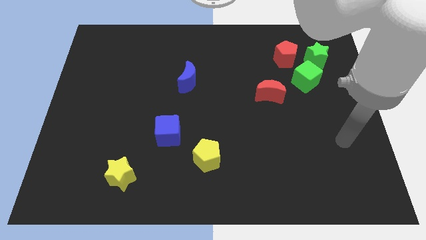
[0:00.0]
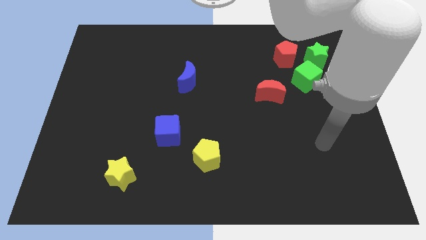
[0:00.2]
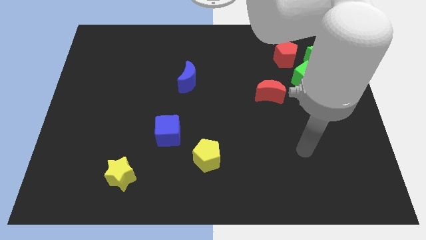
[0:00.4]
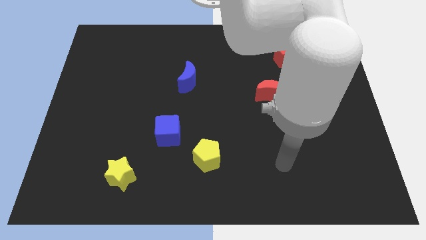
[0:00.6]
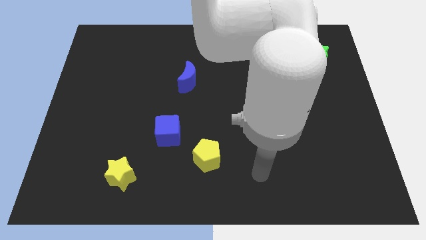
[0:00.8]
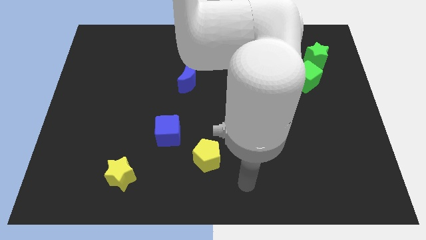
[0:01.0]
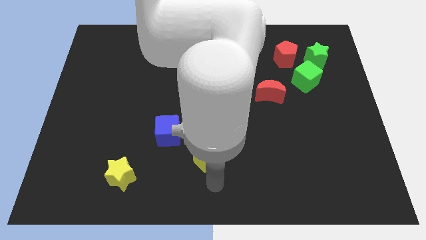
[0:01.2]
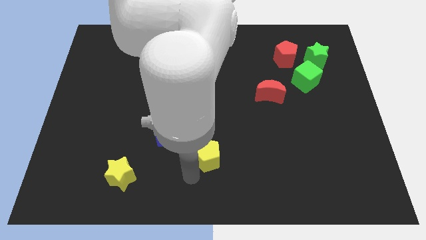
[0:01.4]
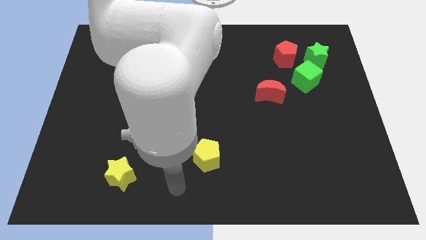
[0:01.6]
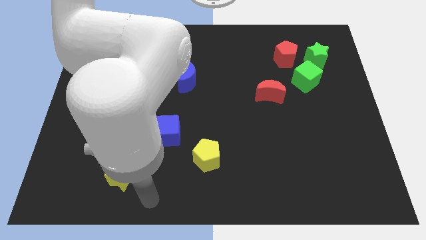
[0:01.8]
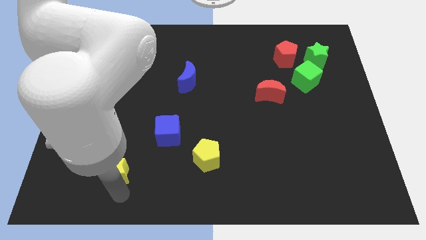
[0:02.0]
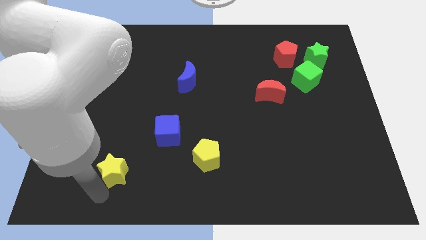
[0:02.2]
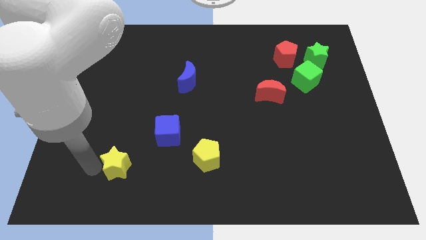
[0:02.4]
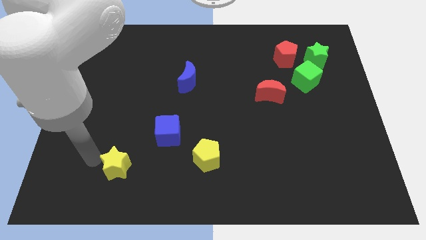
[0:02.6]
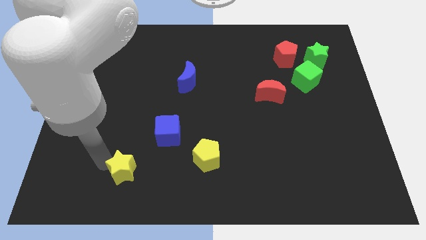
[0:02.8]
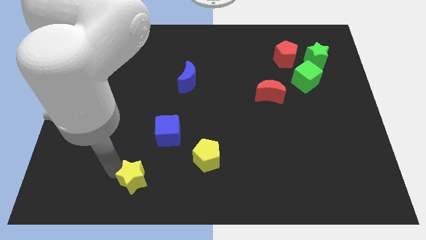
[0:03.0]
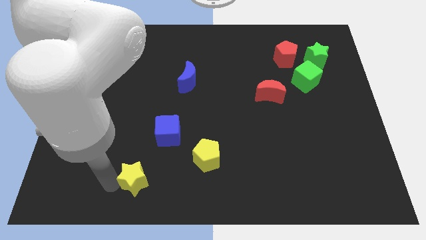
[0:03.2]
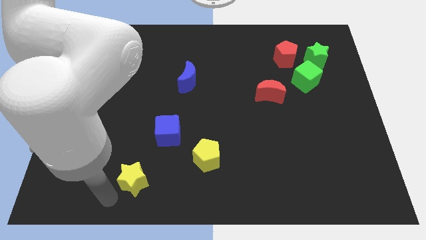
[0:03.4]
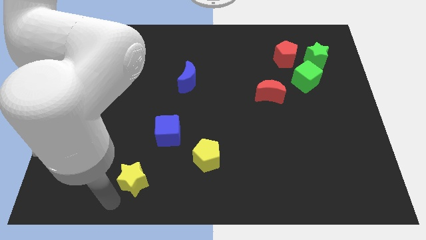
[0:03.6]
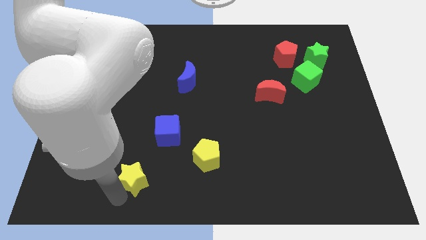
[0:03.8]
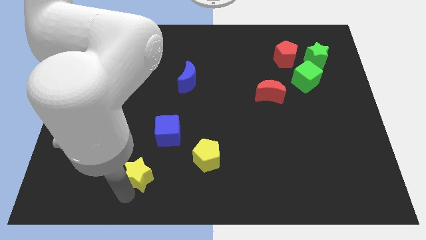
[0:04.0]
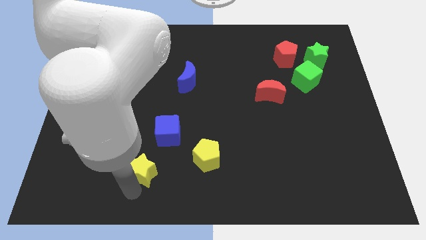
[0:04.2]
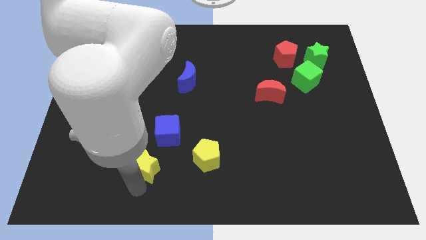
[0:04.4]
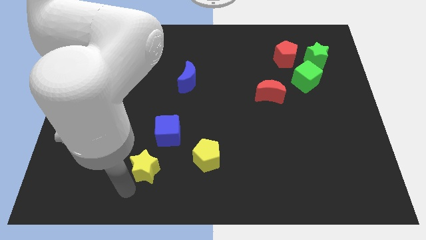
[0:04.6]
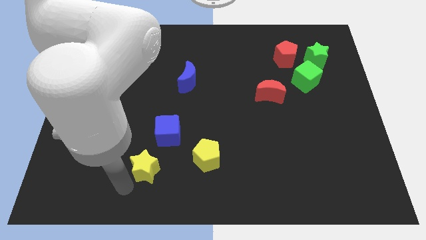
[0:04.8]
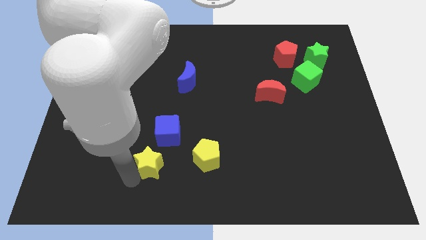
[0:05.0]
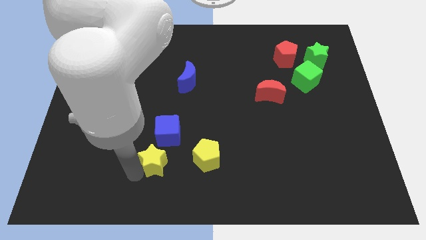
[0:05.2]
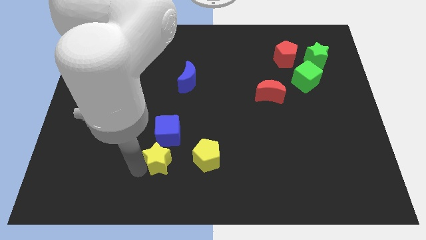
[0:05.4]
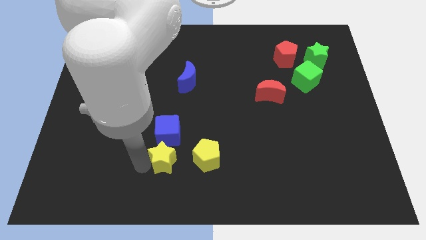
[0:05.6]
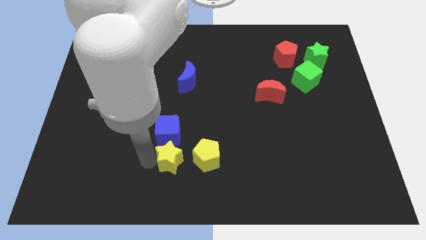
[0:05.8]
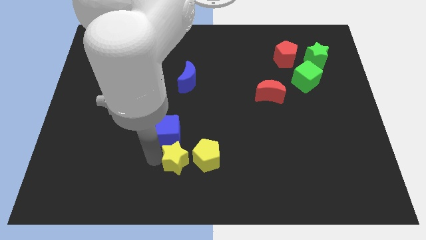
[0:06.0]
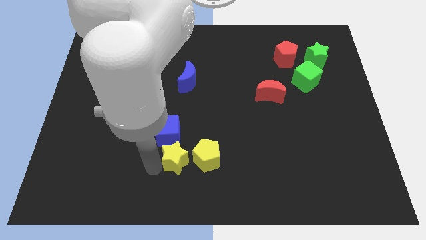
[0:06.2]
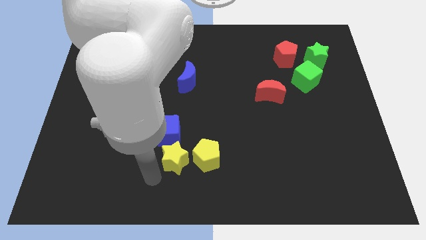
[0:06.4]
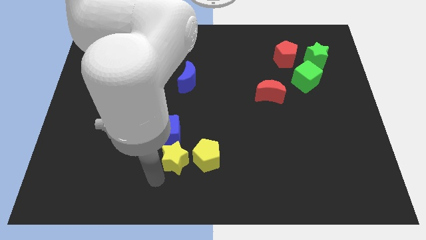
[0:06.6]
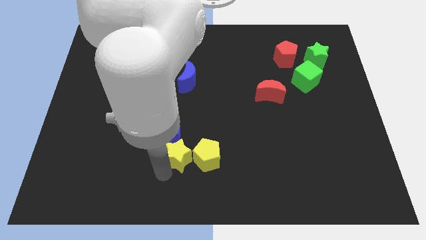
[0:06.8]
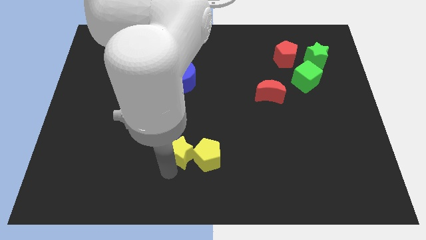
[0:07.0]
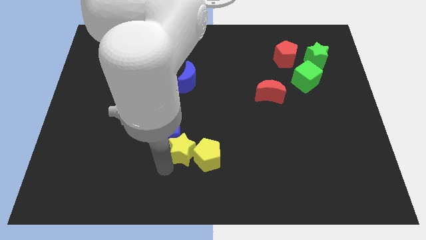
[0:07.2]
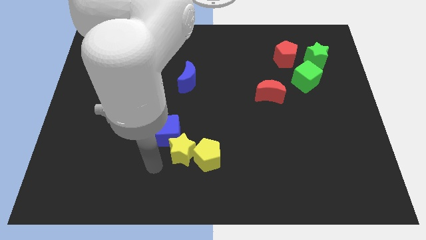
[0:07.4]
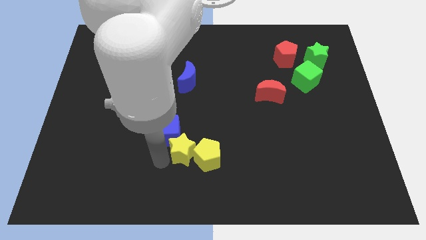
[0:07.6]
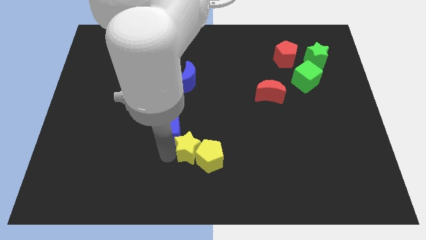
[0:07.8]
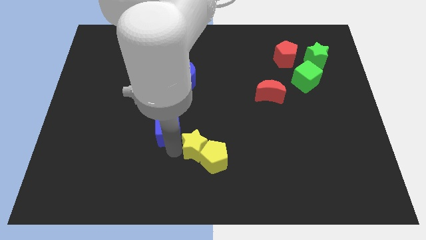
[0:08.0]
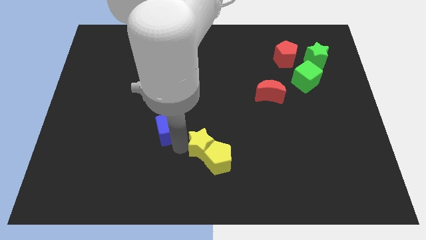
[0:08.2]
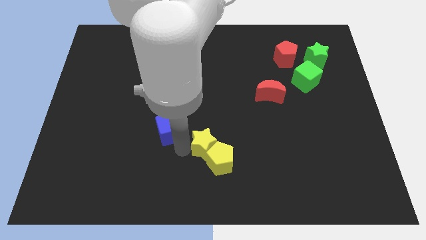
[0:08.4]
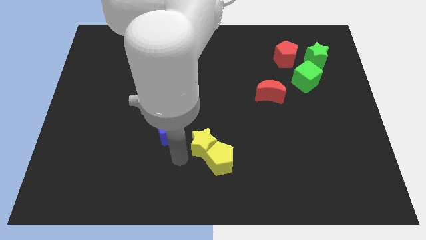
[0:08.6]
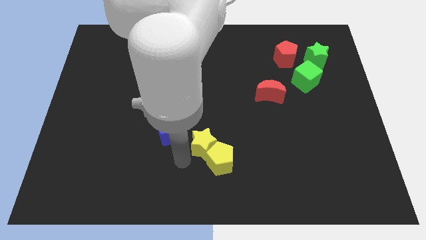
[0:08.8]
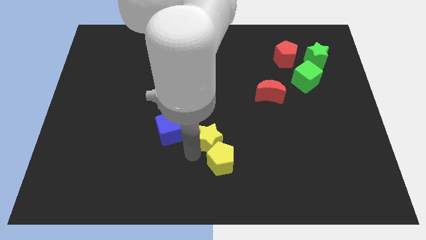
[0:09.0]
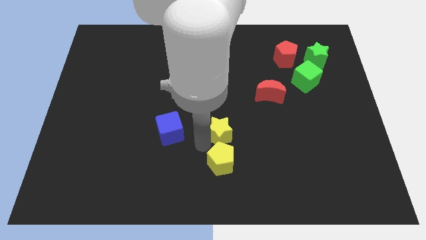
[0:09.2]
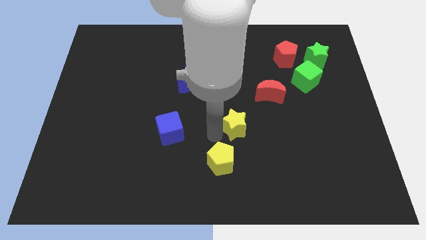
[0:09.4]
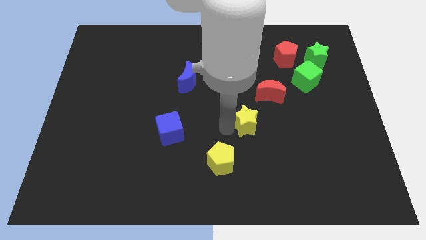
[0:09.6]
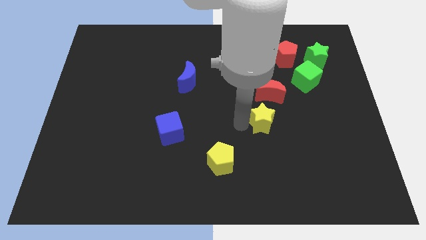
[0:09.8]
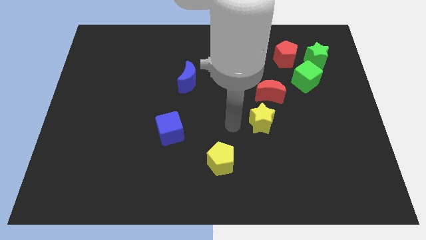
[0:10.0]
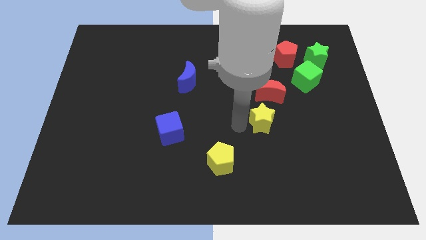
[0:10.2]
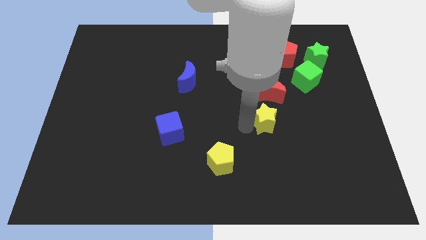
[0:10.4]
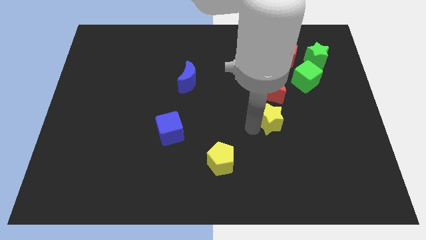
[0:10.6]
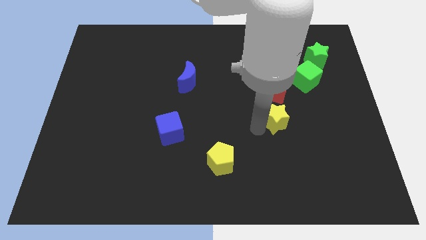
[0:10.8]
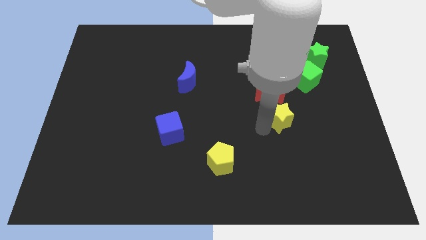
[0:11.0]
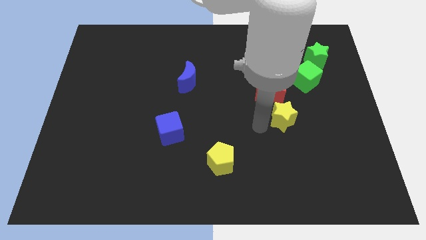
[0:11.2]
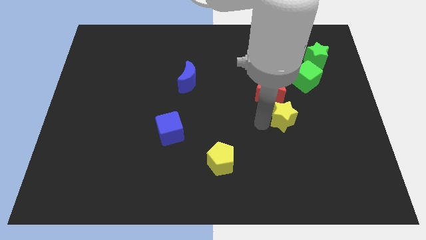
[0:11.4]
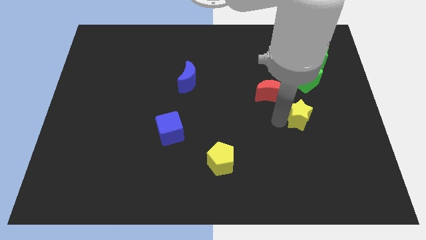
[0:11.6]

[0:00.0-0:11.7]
slide the yellow star to the bottom of the green cube

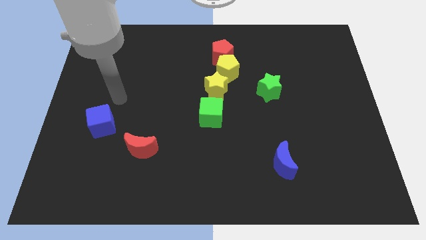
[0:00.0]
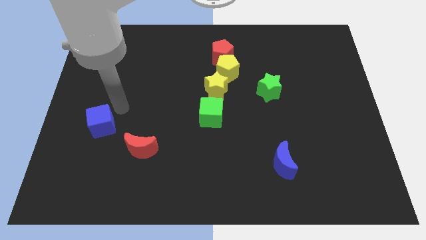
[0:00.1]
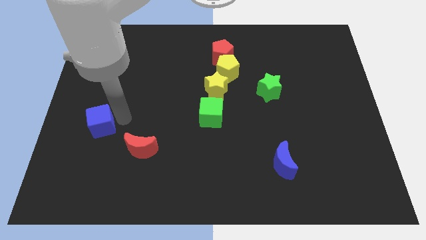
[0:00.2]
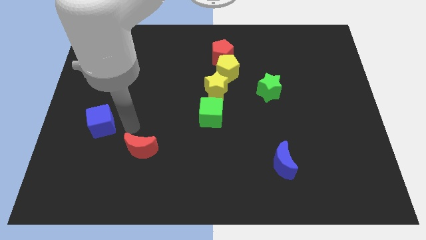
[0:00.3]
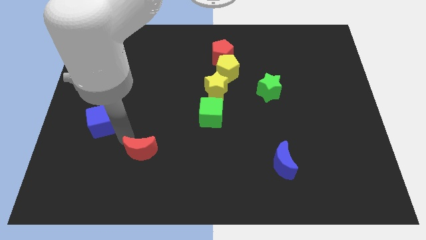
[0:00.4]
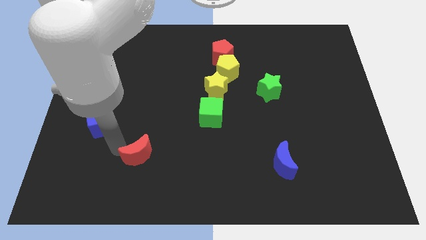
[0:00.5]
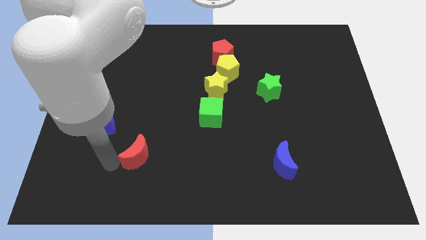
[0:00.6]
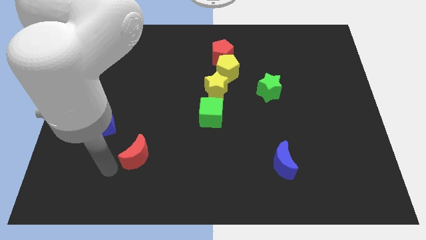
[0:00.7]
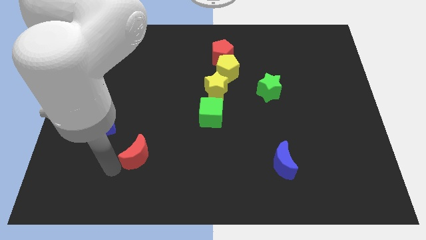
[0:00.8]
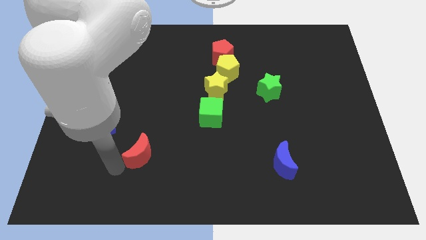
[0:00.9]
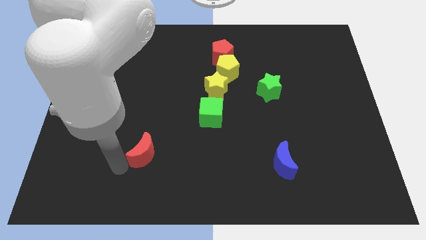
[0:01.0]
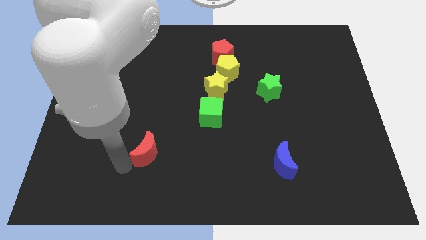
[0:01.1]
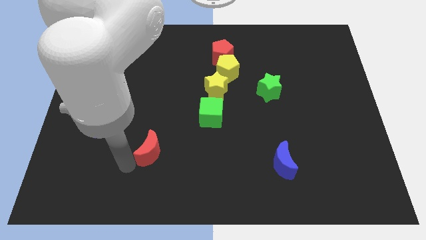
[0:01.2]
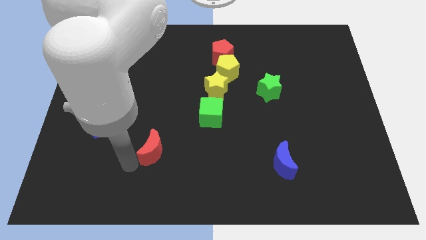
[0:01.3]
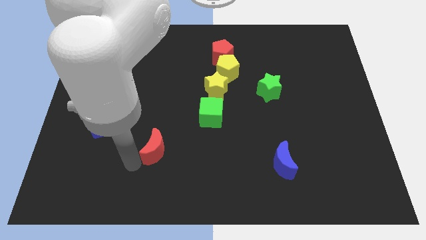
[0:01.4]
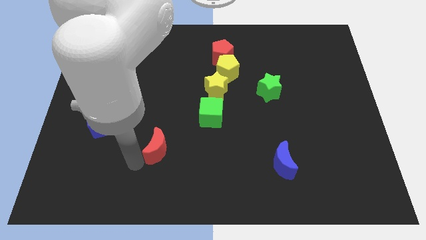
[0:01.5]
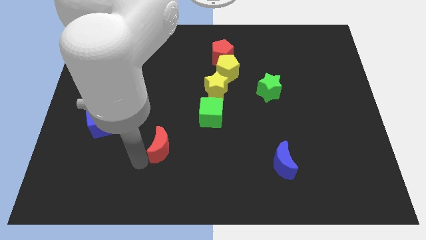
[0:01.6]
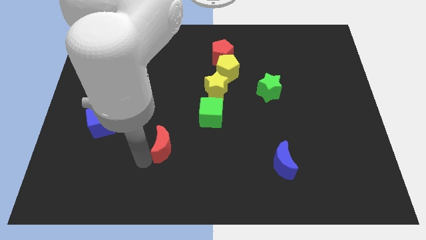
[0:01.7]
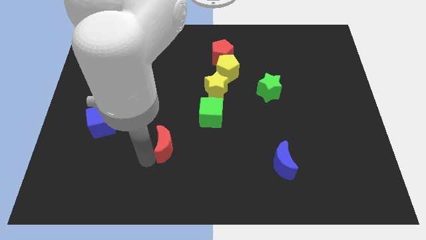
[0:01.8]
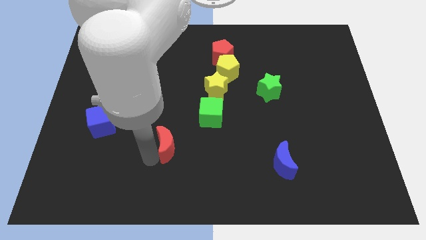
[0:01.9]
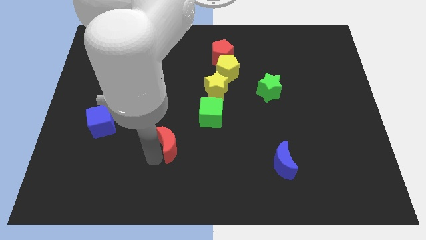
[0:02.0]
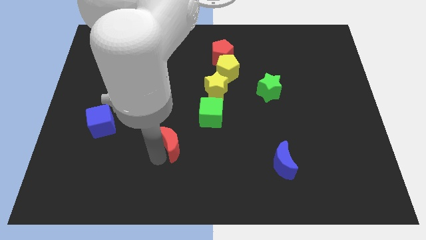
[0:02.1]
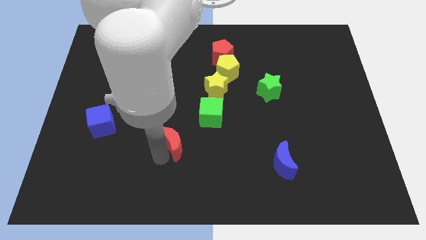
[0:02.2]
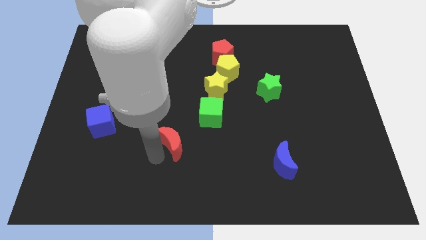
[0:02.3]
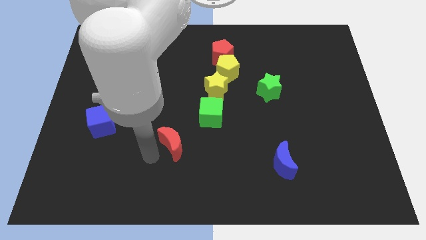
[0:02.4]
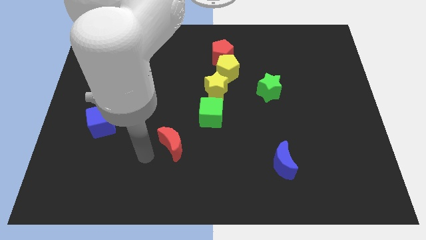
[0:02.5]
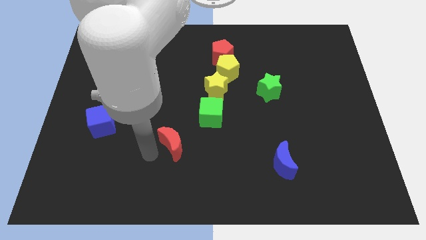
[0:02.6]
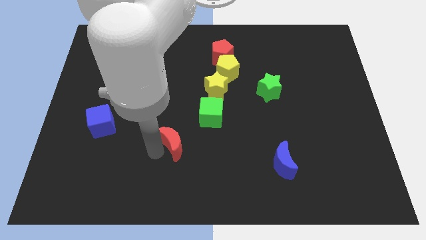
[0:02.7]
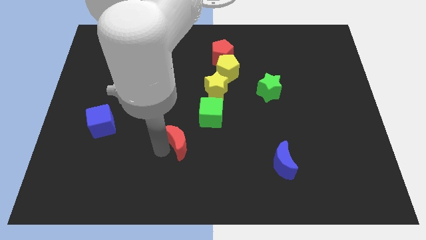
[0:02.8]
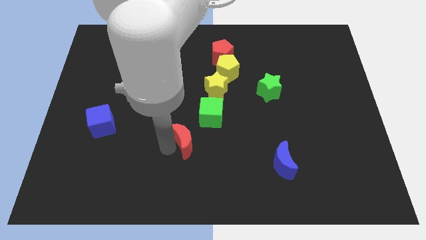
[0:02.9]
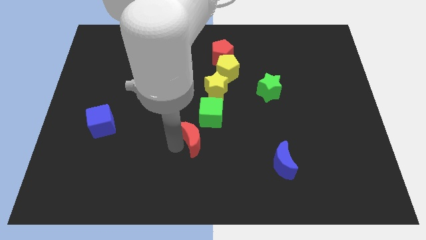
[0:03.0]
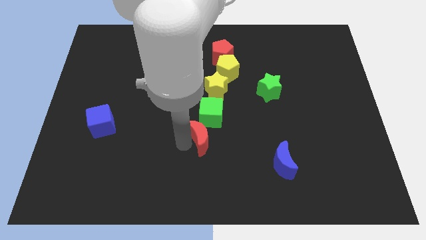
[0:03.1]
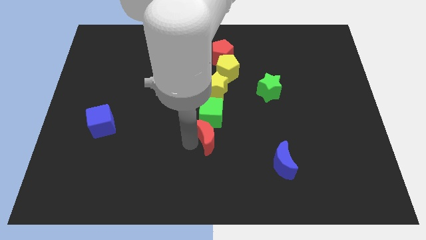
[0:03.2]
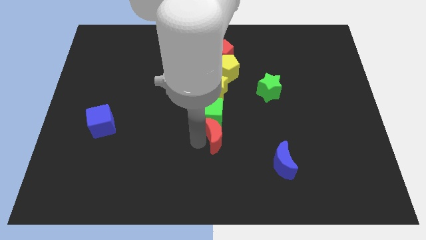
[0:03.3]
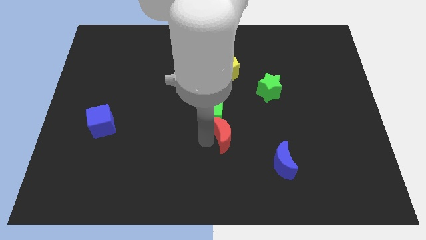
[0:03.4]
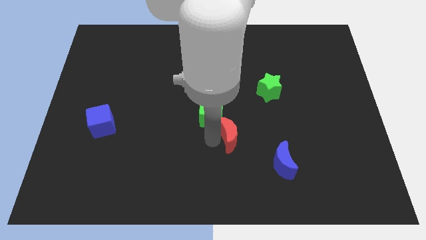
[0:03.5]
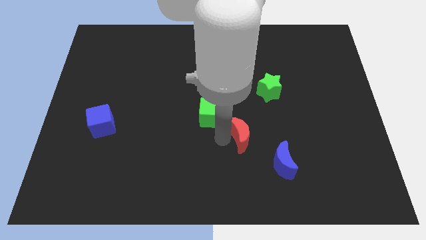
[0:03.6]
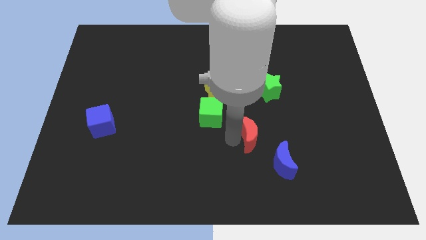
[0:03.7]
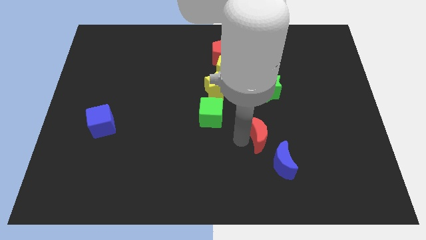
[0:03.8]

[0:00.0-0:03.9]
slide the red moon to the bottom of the green star
